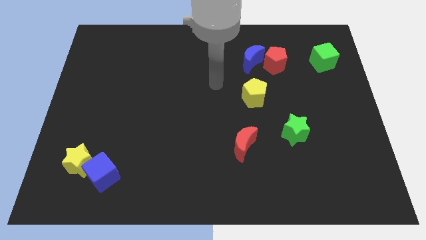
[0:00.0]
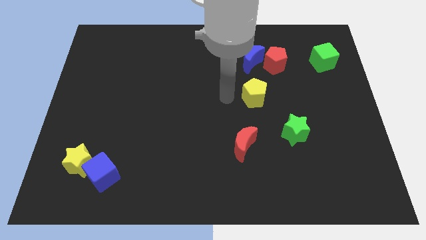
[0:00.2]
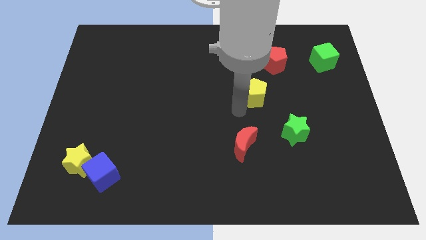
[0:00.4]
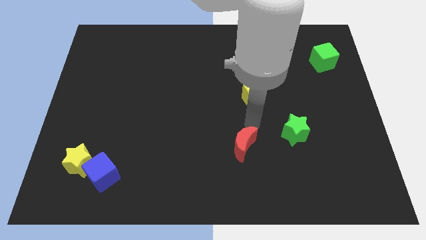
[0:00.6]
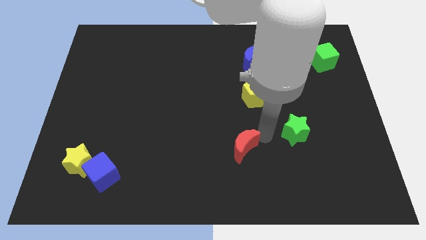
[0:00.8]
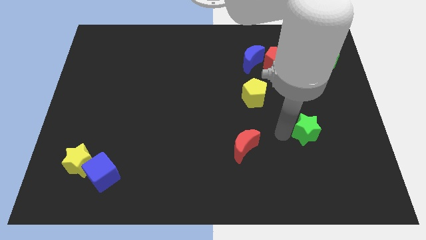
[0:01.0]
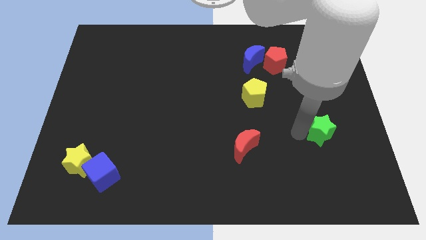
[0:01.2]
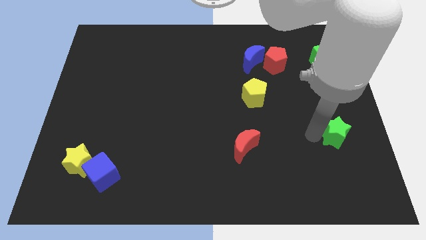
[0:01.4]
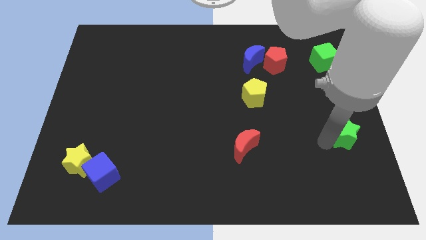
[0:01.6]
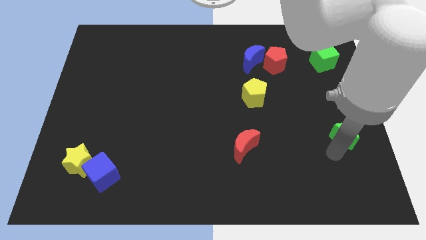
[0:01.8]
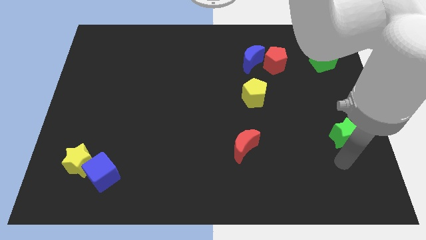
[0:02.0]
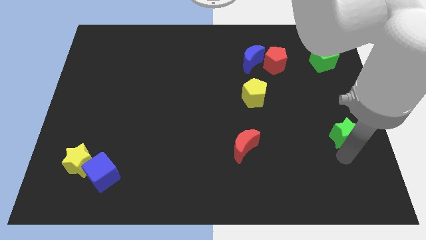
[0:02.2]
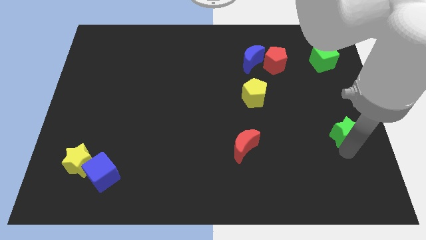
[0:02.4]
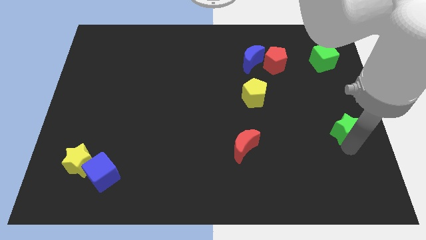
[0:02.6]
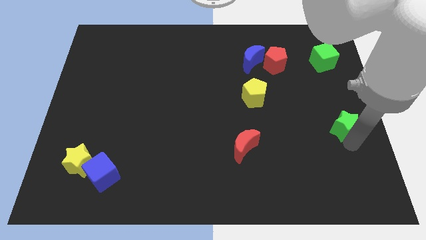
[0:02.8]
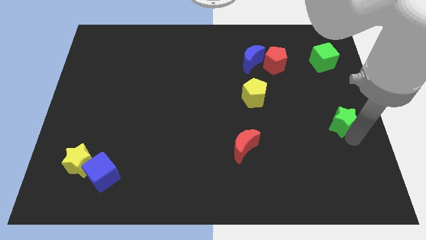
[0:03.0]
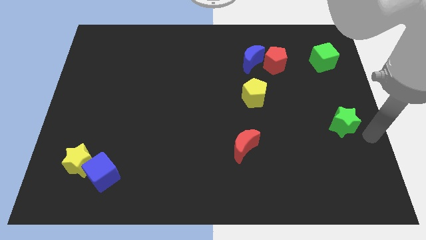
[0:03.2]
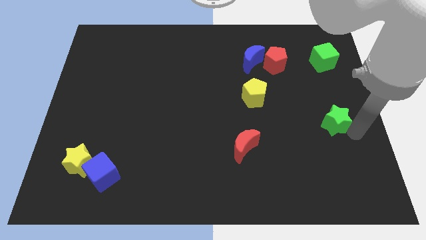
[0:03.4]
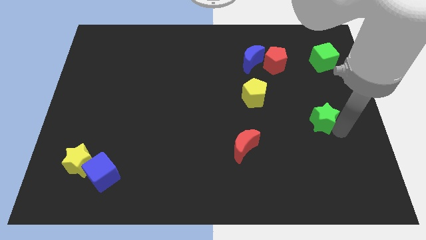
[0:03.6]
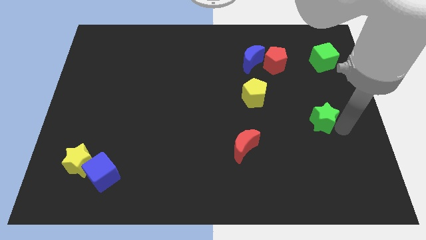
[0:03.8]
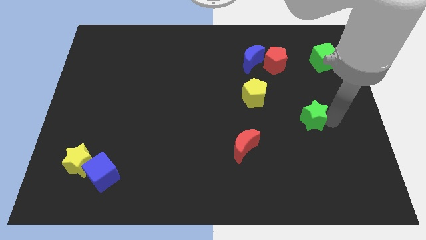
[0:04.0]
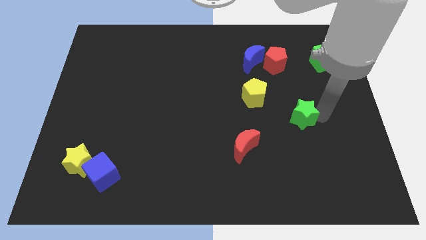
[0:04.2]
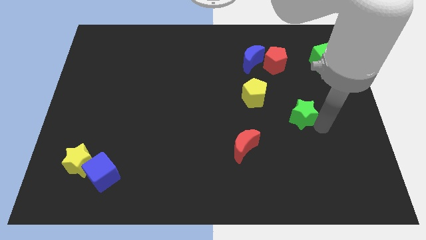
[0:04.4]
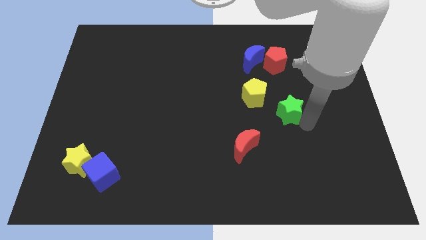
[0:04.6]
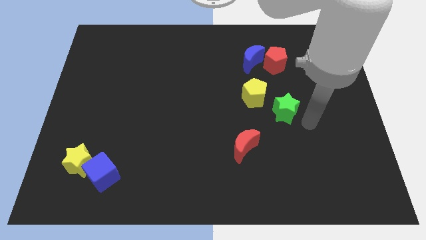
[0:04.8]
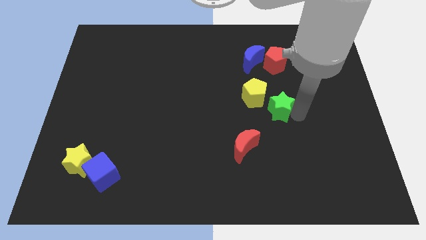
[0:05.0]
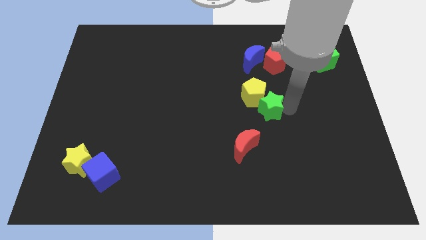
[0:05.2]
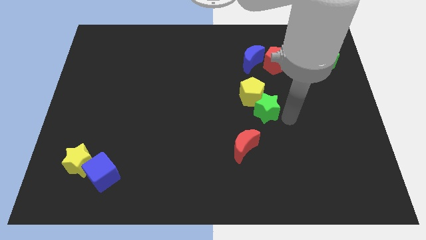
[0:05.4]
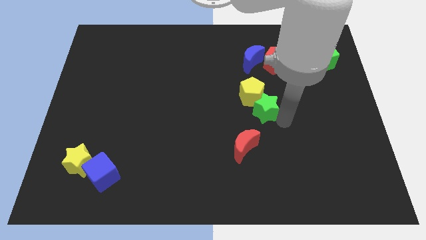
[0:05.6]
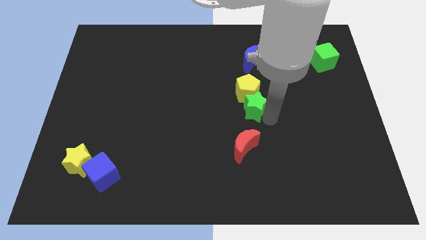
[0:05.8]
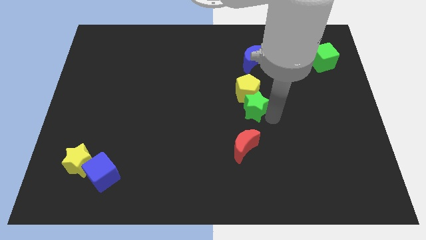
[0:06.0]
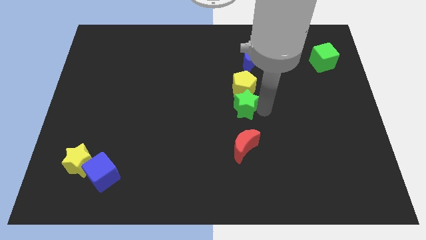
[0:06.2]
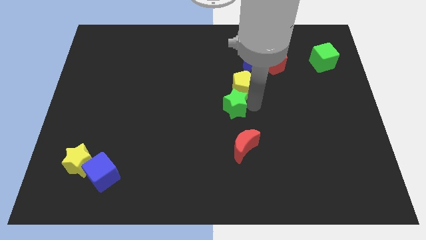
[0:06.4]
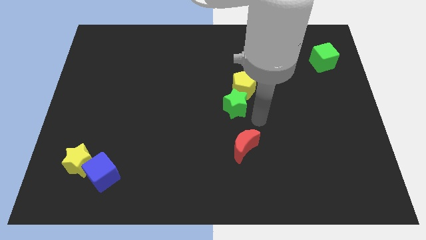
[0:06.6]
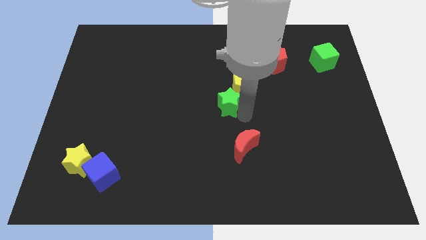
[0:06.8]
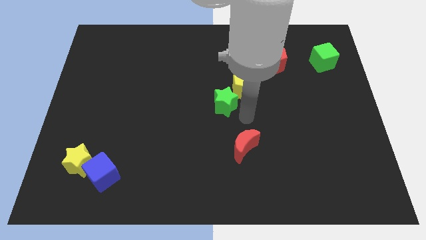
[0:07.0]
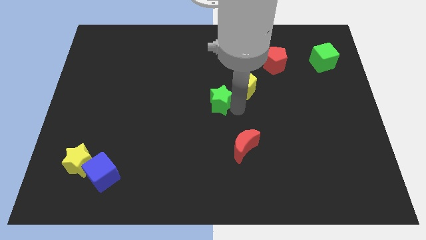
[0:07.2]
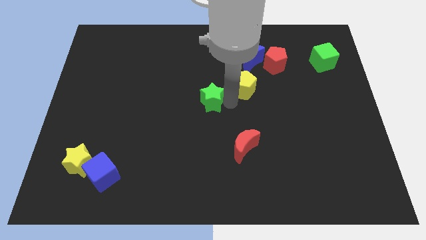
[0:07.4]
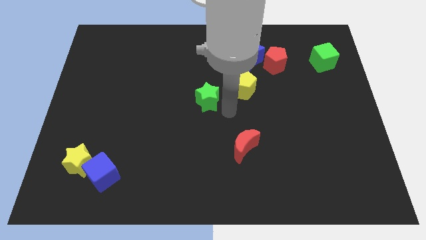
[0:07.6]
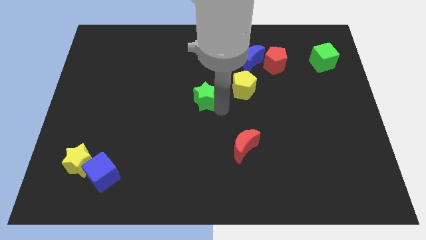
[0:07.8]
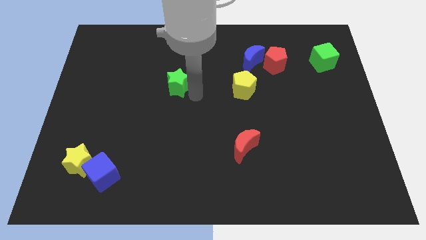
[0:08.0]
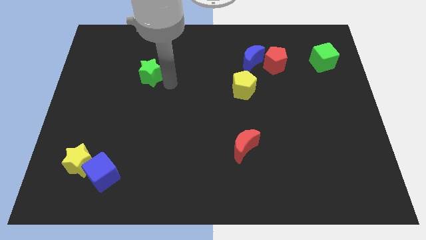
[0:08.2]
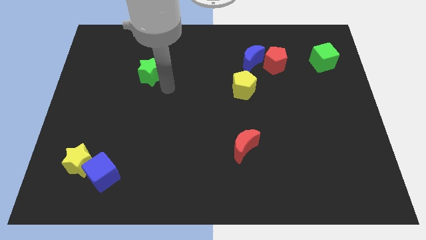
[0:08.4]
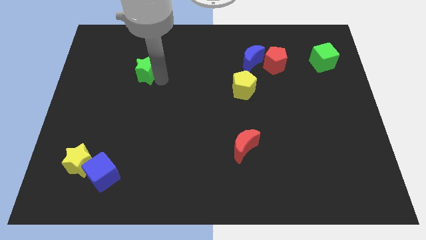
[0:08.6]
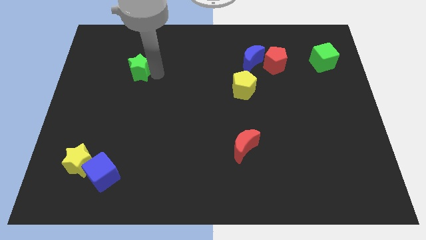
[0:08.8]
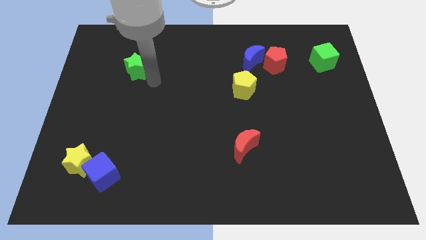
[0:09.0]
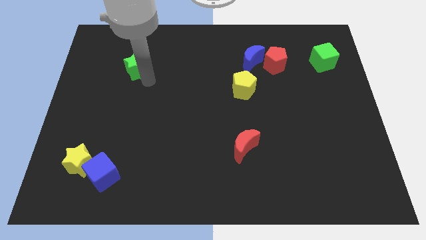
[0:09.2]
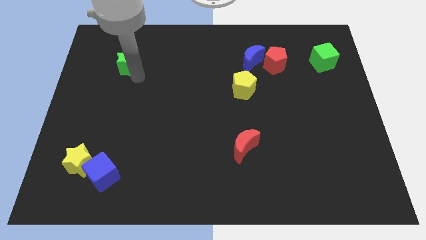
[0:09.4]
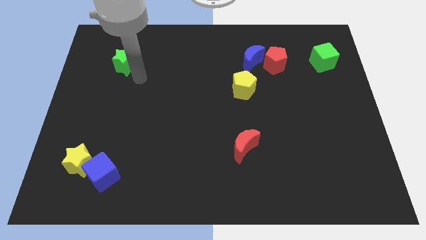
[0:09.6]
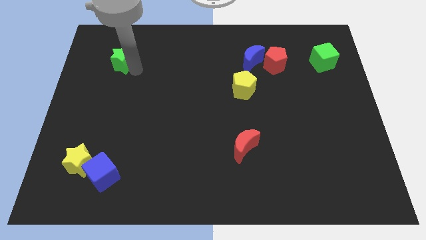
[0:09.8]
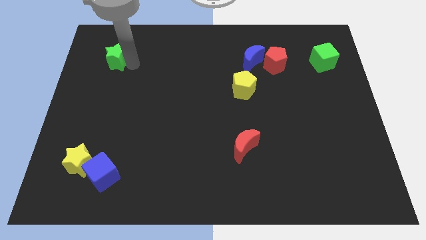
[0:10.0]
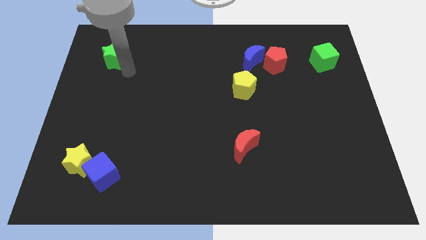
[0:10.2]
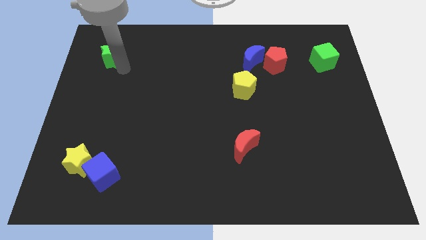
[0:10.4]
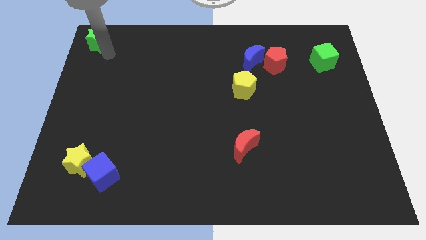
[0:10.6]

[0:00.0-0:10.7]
push the green star to the top left corner

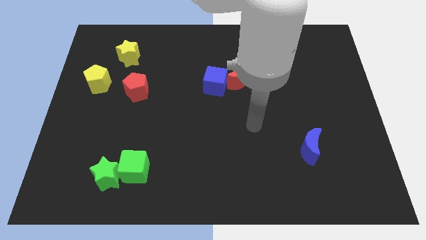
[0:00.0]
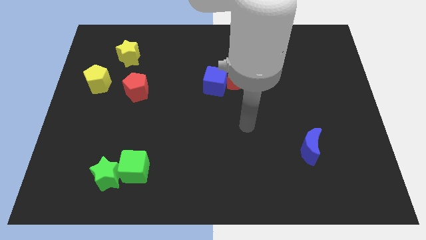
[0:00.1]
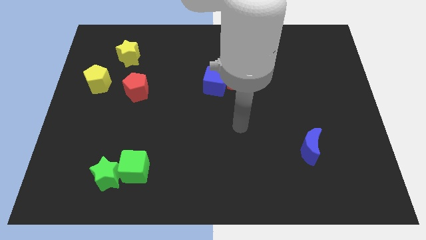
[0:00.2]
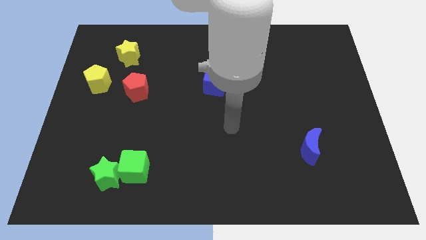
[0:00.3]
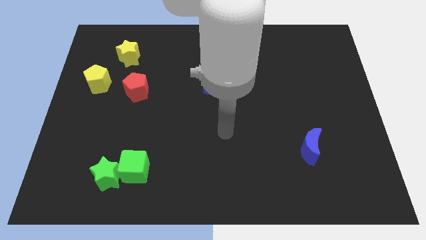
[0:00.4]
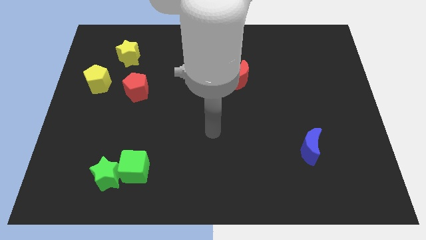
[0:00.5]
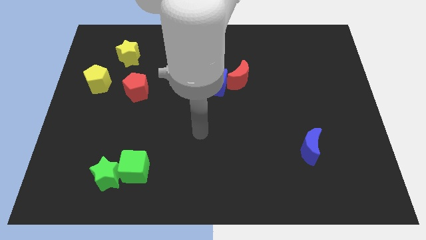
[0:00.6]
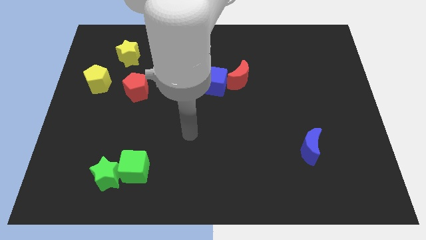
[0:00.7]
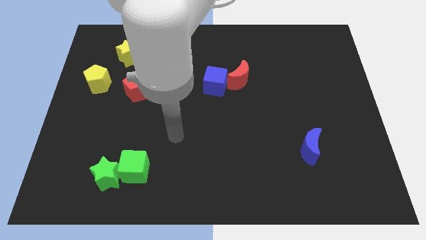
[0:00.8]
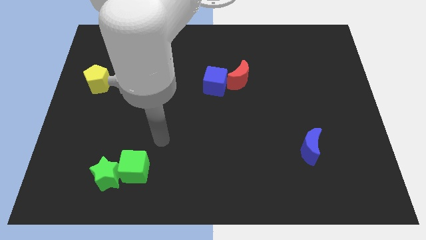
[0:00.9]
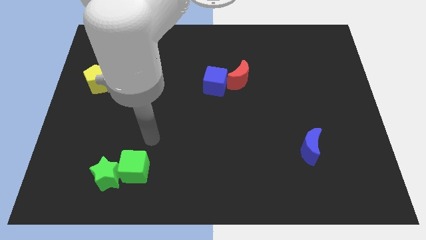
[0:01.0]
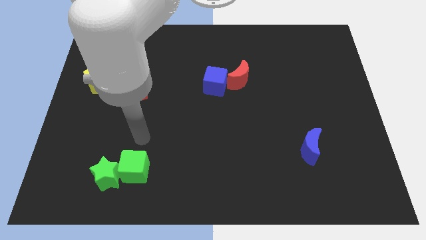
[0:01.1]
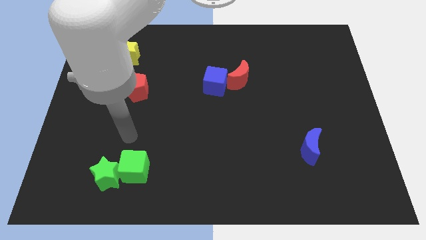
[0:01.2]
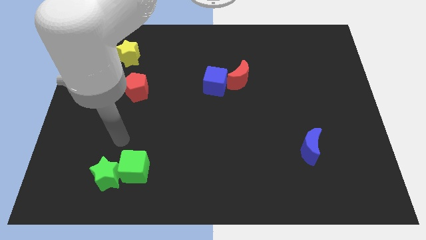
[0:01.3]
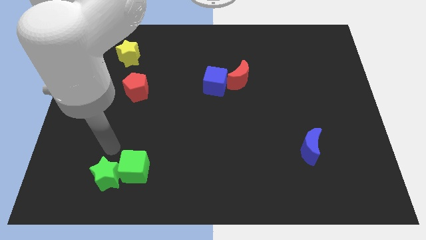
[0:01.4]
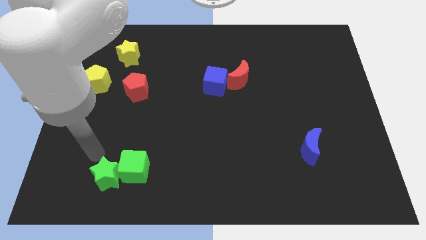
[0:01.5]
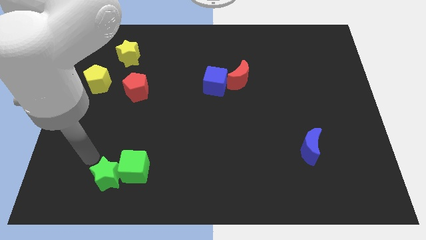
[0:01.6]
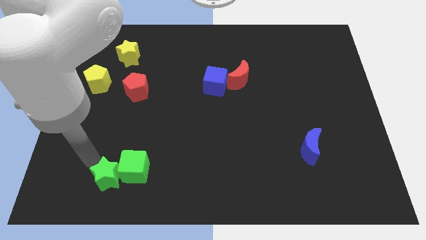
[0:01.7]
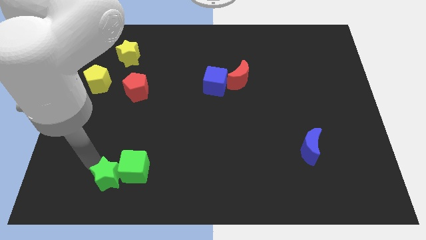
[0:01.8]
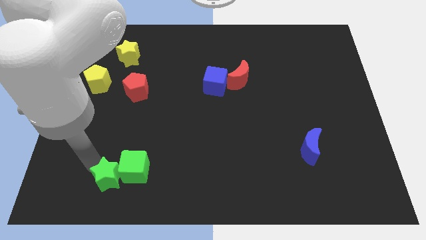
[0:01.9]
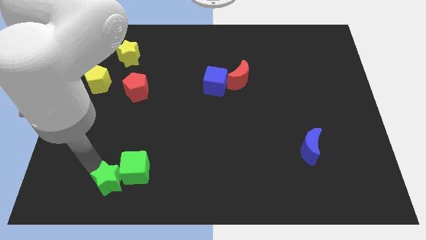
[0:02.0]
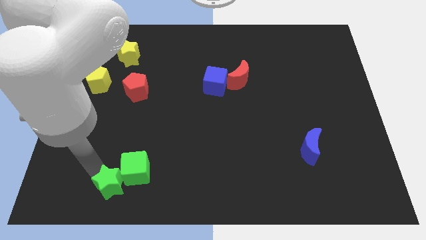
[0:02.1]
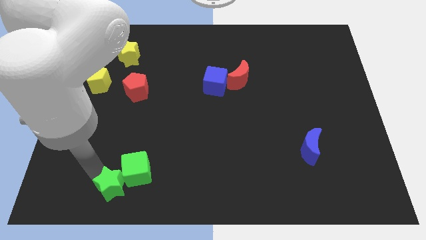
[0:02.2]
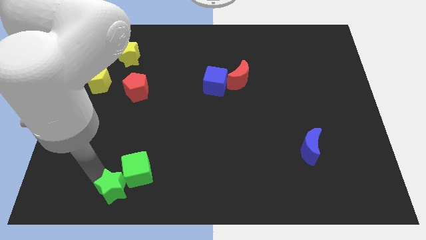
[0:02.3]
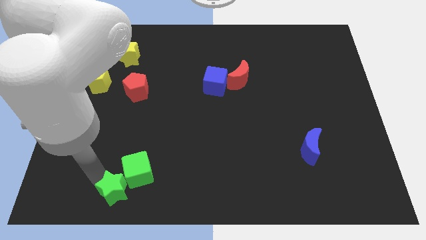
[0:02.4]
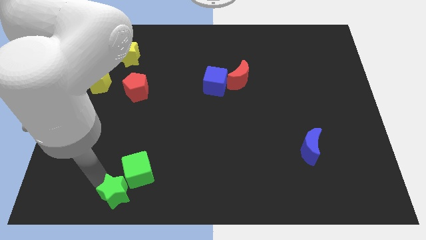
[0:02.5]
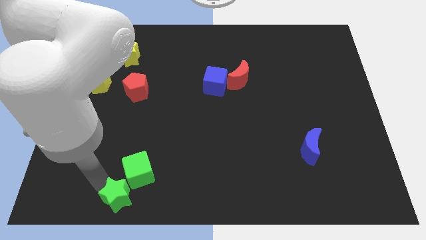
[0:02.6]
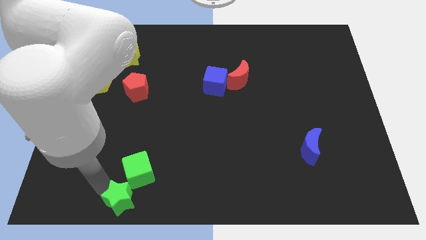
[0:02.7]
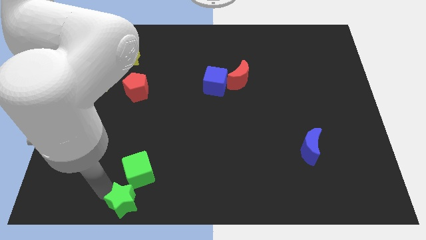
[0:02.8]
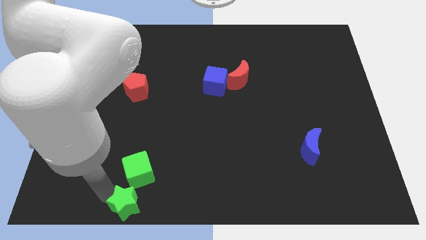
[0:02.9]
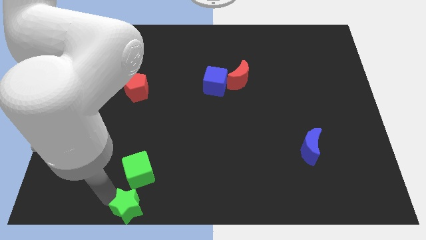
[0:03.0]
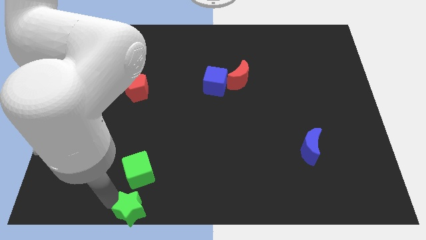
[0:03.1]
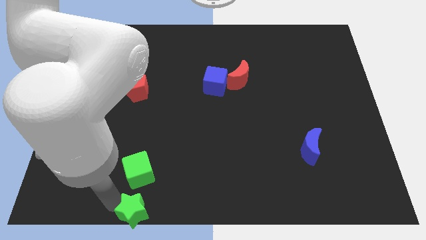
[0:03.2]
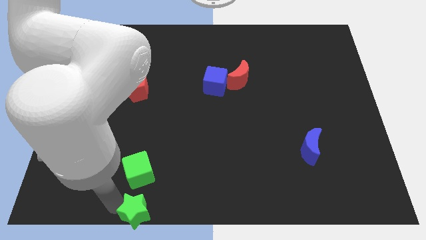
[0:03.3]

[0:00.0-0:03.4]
put the green star to the bottom side
